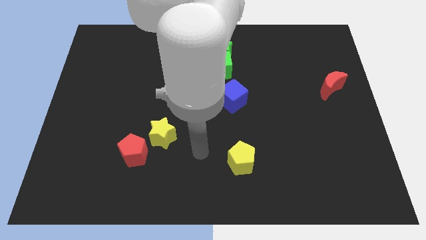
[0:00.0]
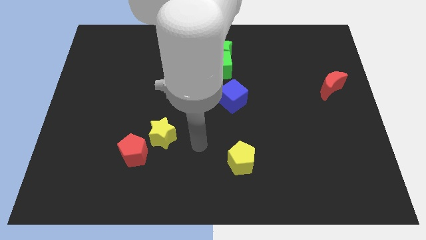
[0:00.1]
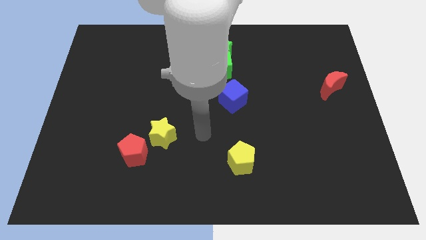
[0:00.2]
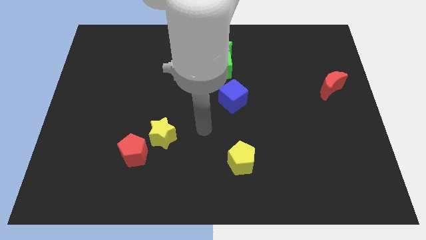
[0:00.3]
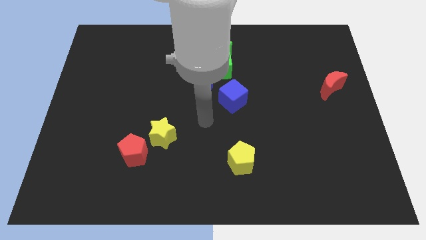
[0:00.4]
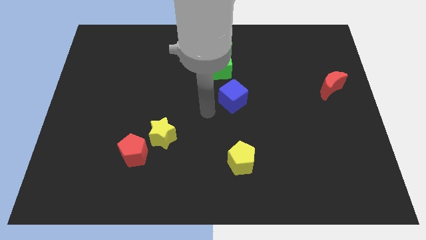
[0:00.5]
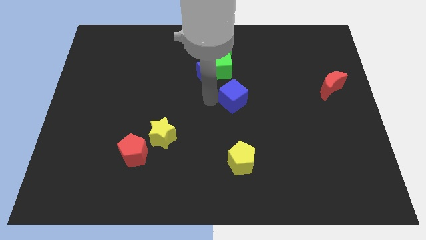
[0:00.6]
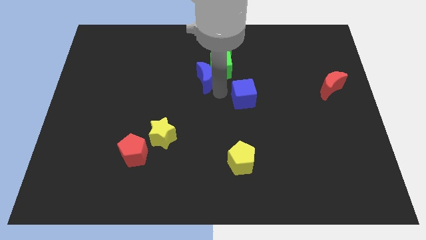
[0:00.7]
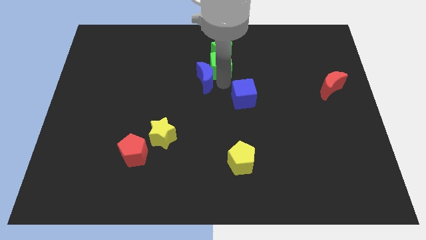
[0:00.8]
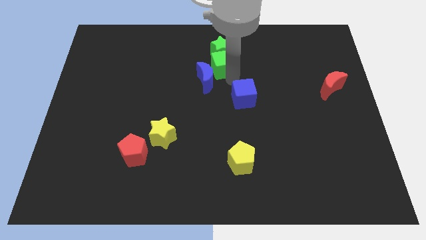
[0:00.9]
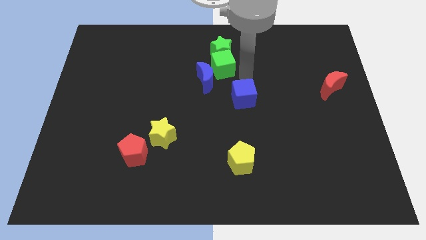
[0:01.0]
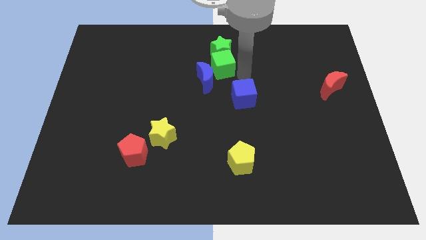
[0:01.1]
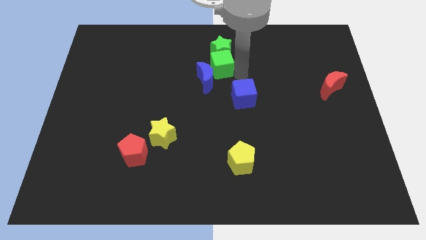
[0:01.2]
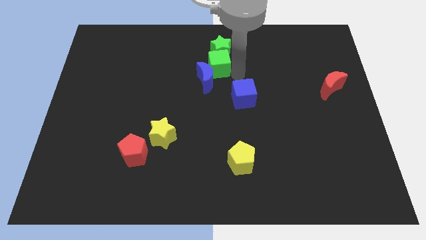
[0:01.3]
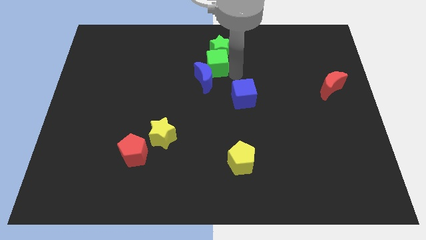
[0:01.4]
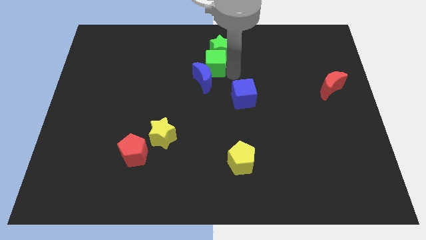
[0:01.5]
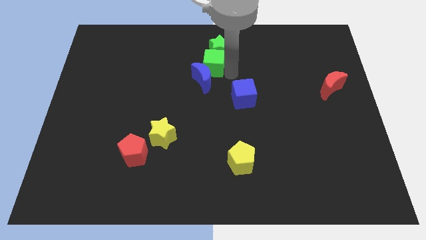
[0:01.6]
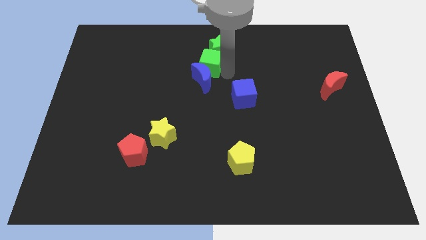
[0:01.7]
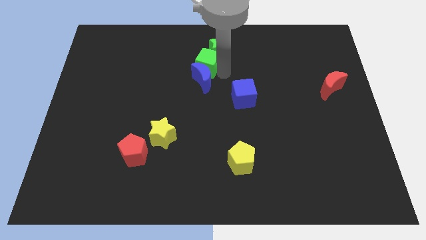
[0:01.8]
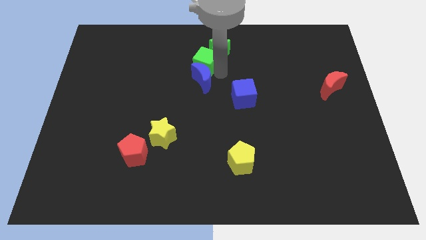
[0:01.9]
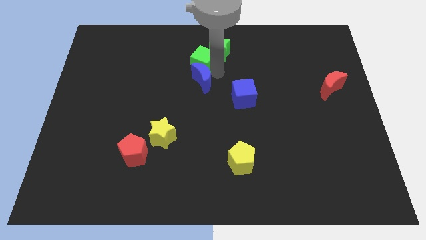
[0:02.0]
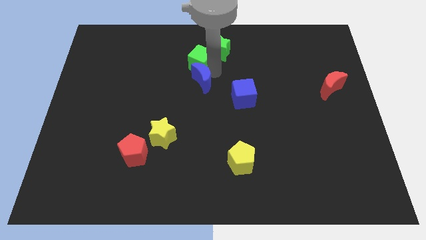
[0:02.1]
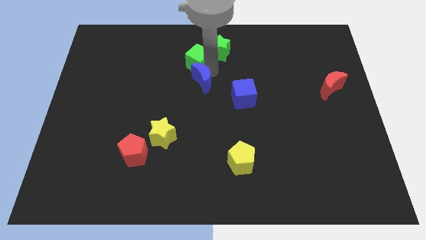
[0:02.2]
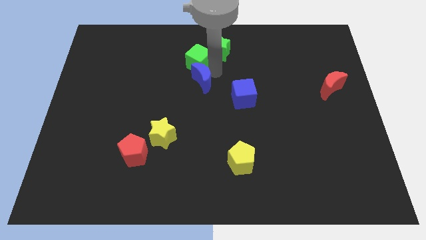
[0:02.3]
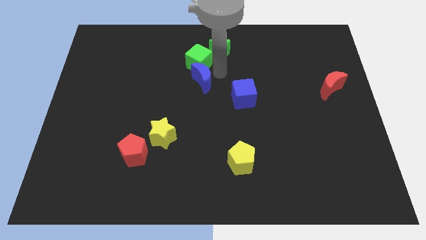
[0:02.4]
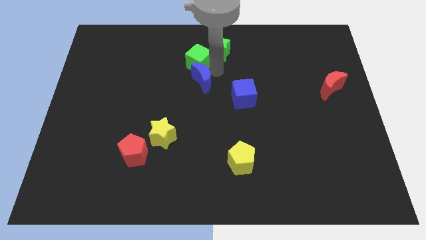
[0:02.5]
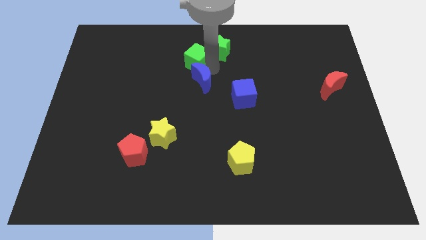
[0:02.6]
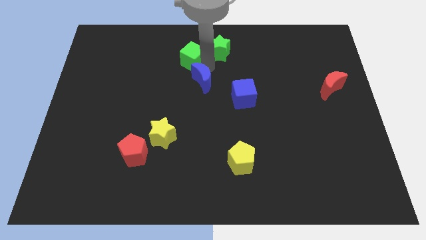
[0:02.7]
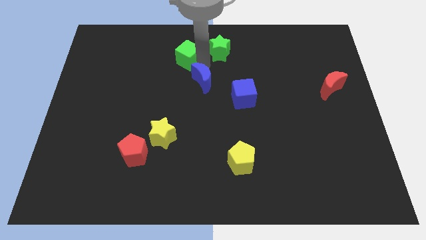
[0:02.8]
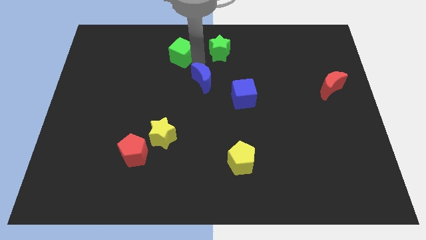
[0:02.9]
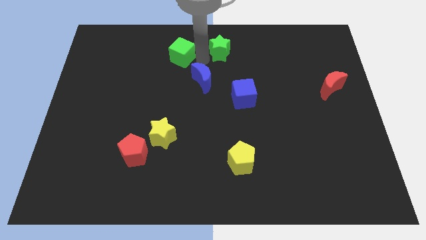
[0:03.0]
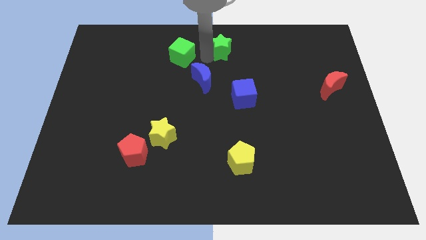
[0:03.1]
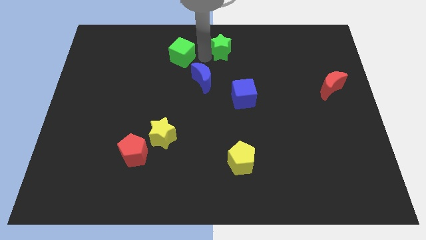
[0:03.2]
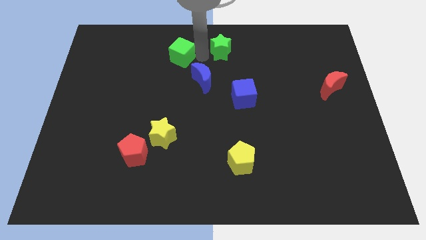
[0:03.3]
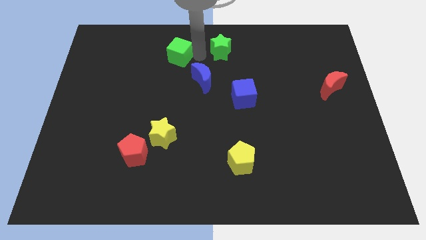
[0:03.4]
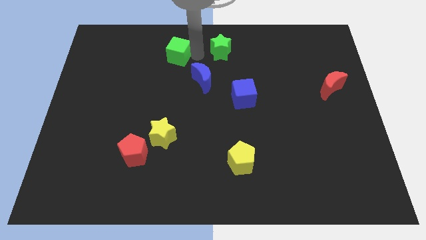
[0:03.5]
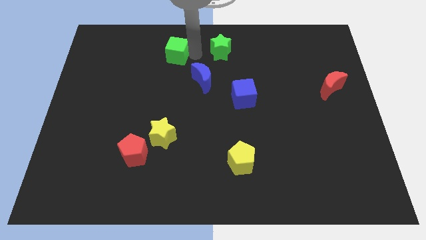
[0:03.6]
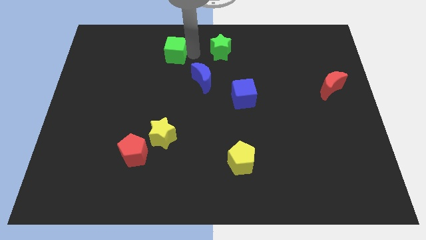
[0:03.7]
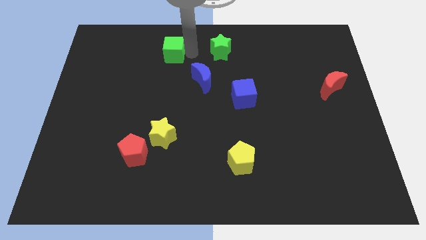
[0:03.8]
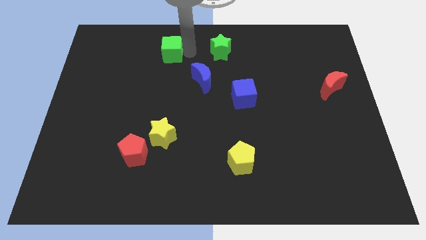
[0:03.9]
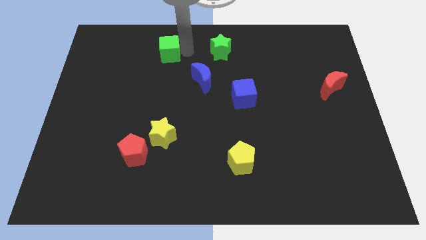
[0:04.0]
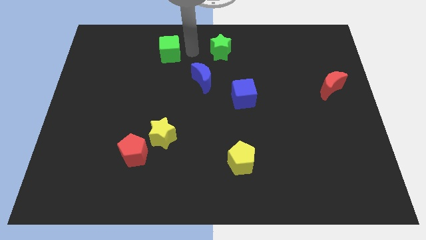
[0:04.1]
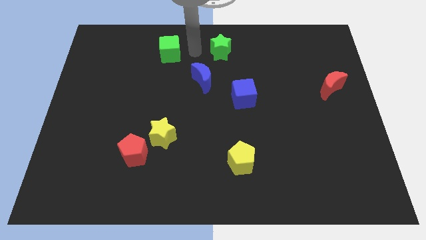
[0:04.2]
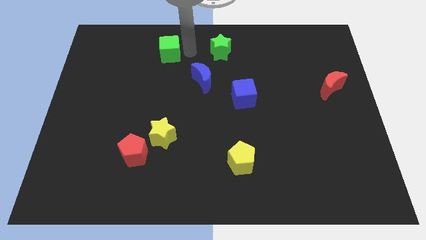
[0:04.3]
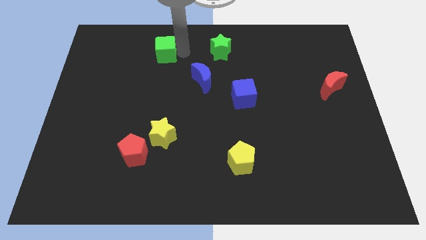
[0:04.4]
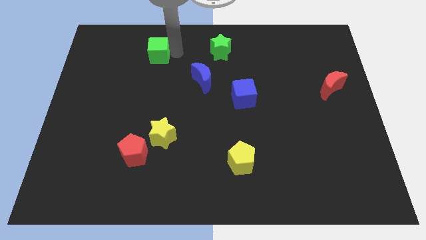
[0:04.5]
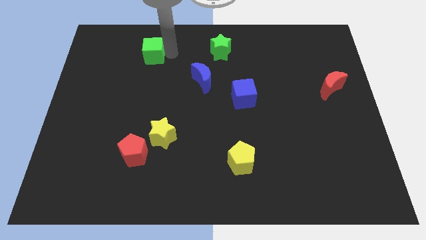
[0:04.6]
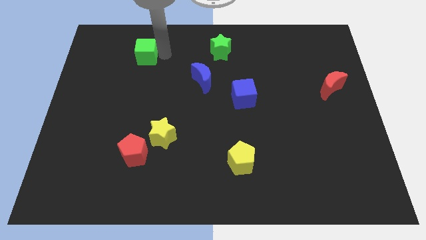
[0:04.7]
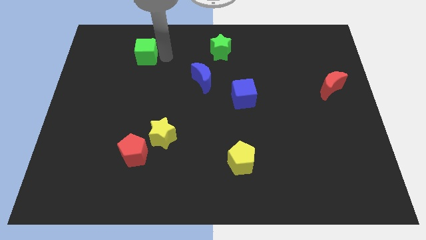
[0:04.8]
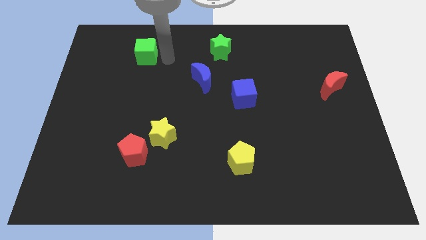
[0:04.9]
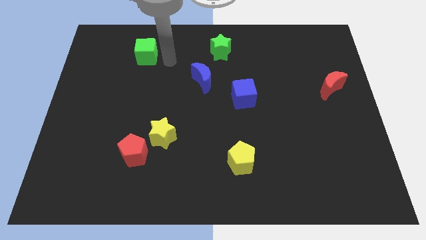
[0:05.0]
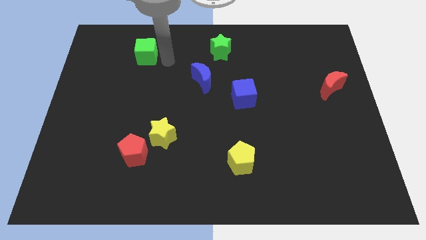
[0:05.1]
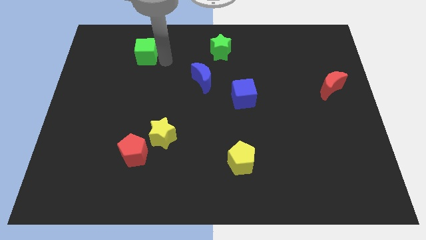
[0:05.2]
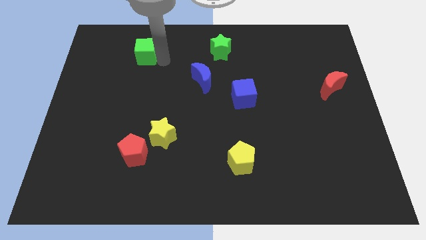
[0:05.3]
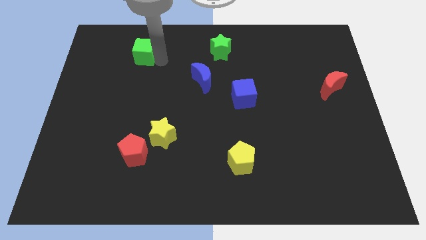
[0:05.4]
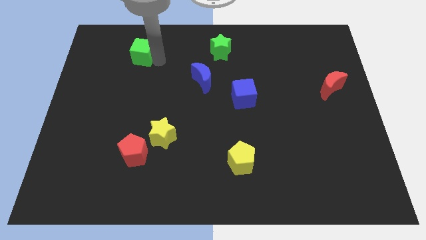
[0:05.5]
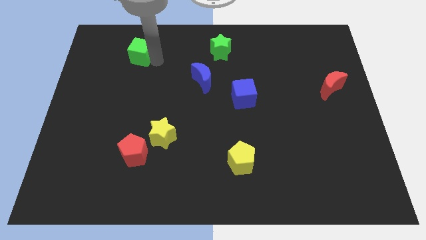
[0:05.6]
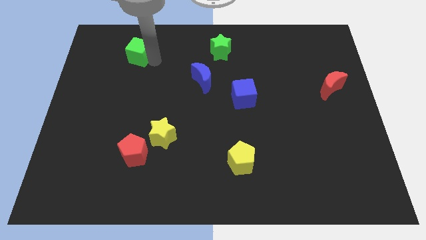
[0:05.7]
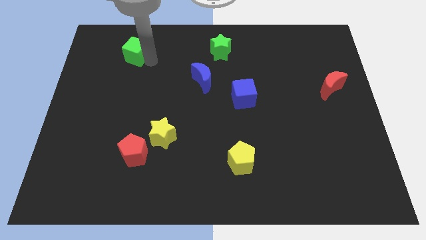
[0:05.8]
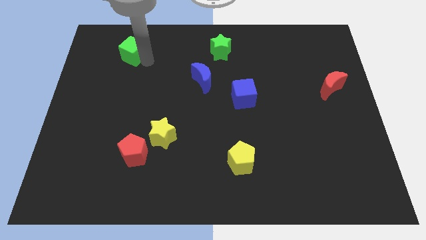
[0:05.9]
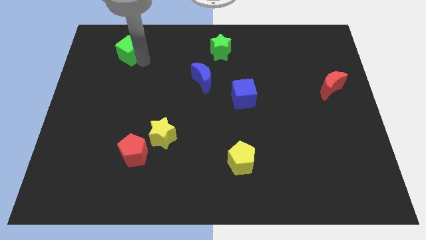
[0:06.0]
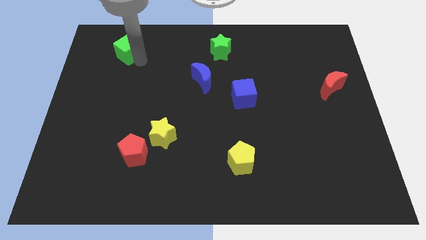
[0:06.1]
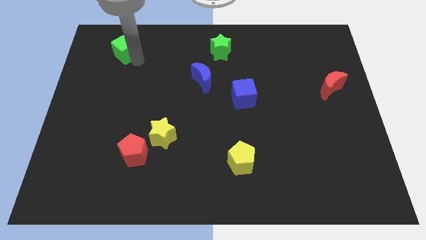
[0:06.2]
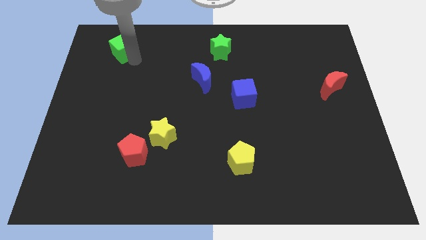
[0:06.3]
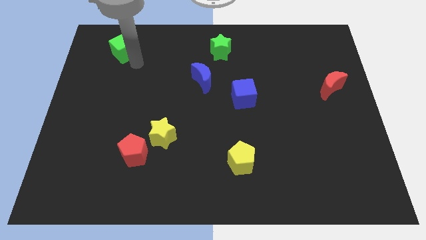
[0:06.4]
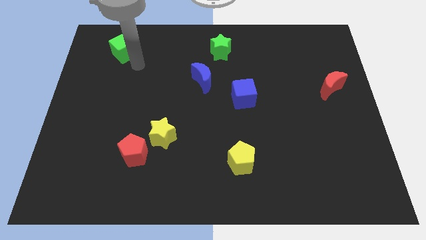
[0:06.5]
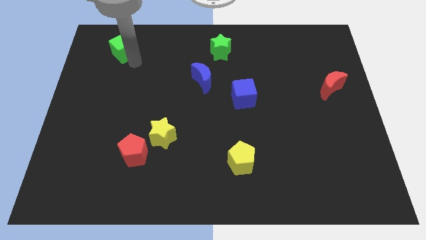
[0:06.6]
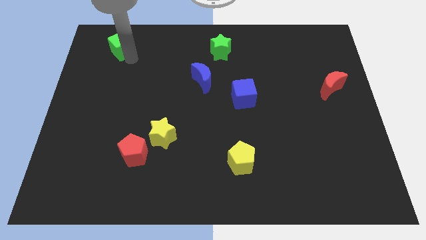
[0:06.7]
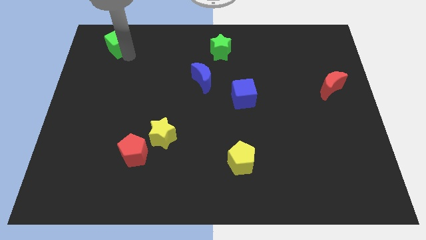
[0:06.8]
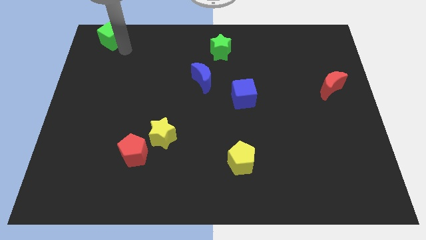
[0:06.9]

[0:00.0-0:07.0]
slide the green cube to the top left of the board
